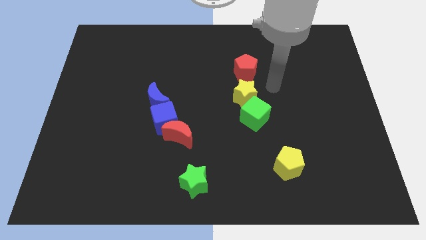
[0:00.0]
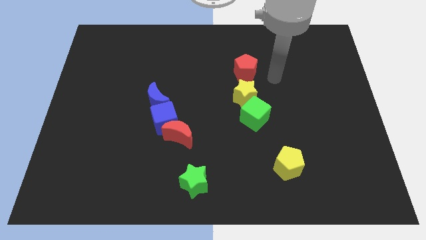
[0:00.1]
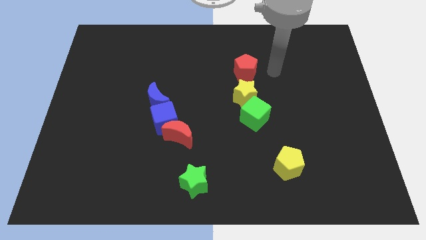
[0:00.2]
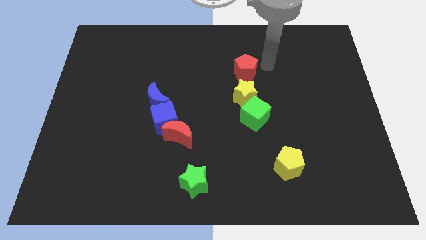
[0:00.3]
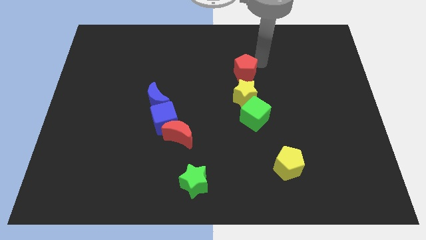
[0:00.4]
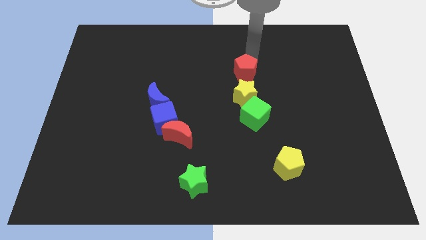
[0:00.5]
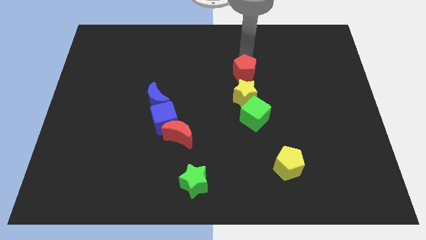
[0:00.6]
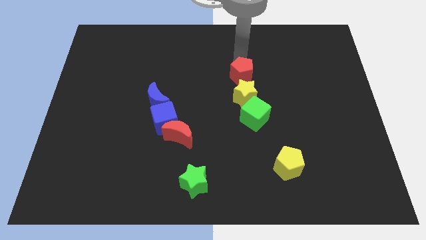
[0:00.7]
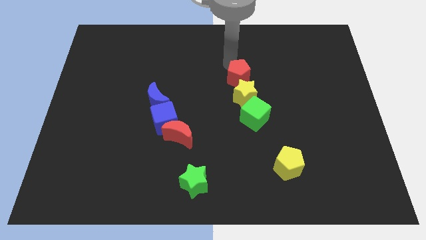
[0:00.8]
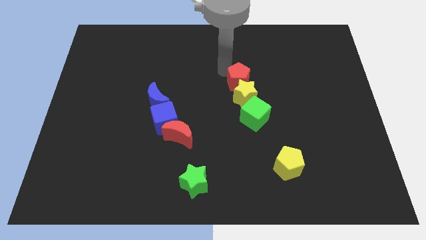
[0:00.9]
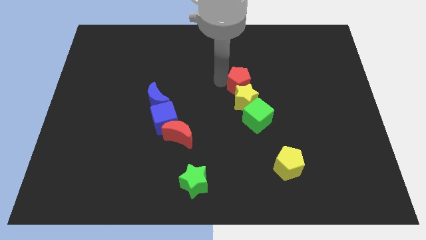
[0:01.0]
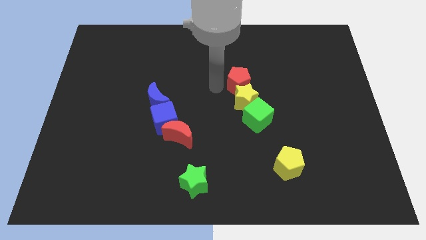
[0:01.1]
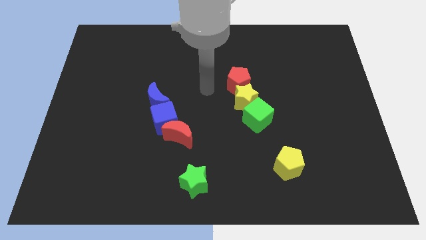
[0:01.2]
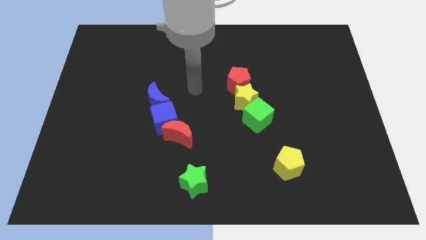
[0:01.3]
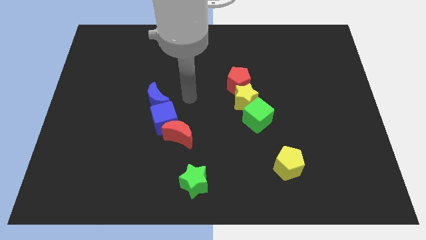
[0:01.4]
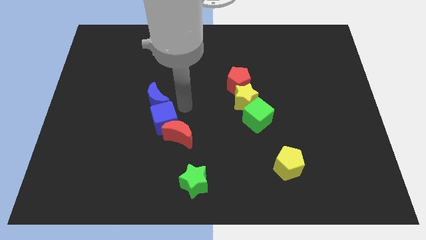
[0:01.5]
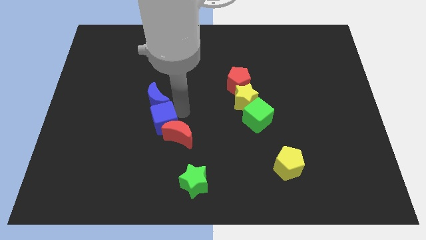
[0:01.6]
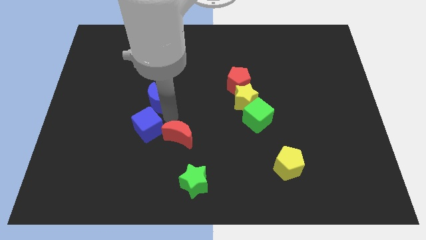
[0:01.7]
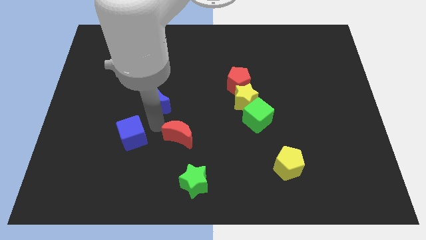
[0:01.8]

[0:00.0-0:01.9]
separate the red moon from the blue cube

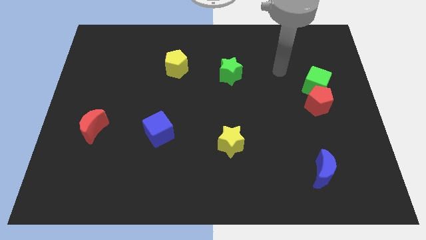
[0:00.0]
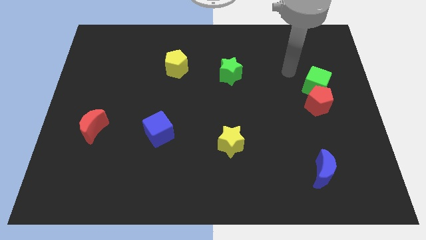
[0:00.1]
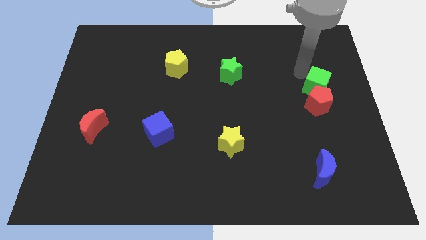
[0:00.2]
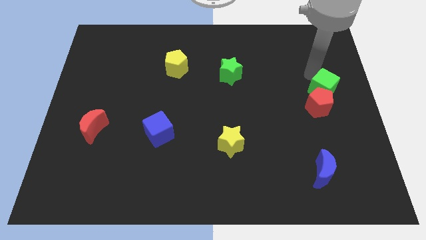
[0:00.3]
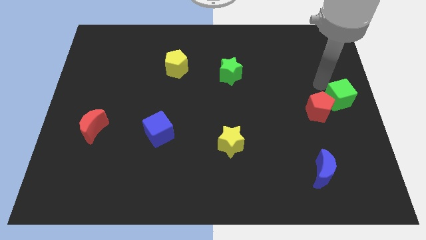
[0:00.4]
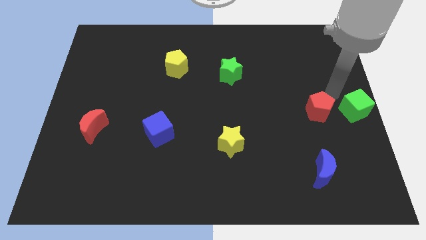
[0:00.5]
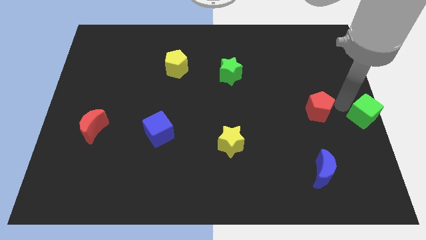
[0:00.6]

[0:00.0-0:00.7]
separate the red pentagon from the green cube

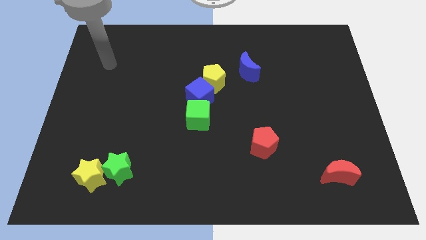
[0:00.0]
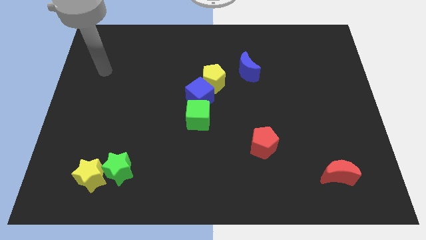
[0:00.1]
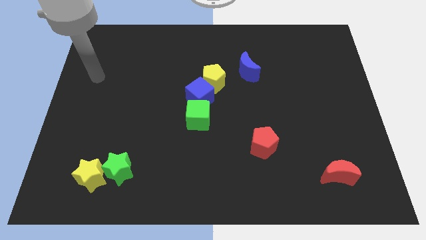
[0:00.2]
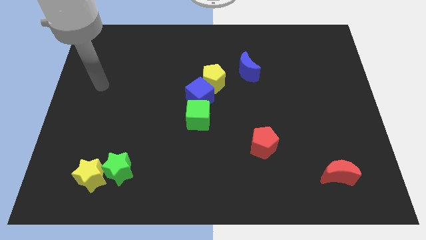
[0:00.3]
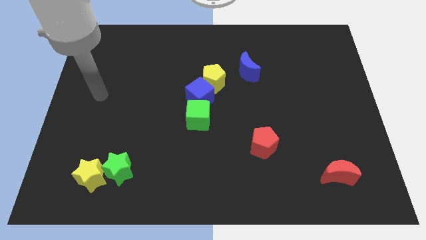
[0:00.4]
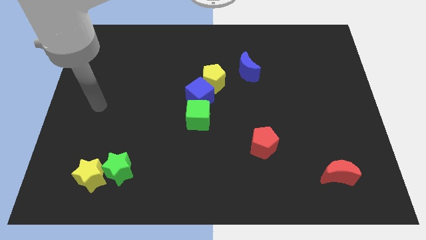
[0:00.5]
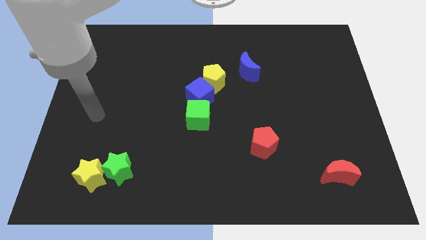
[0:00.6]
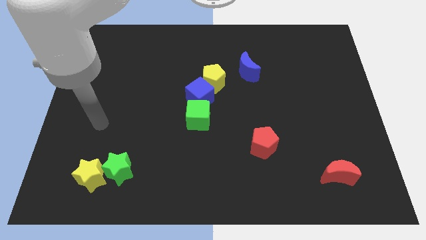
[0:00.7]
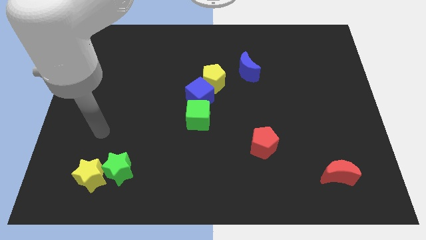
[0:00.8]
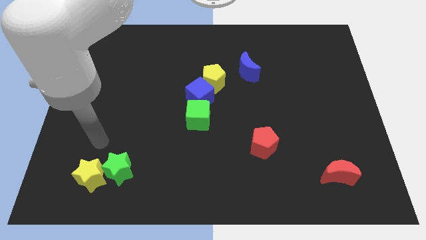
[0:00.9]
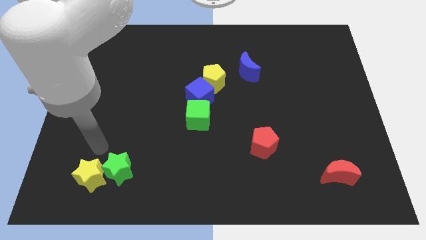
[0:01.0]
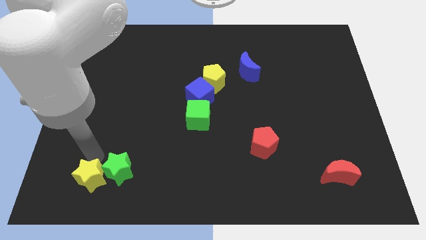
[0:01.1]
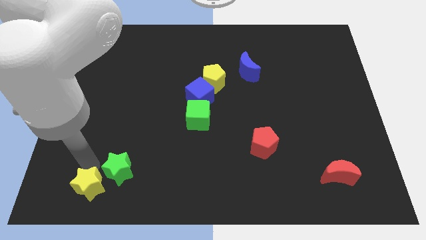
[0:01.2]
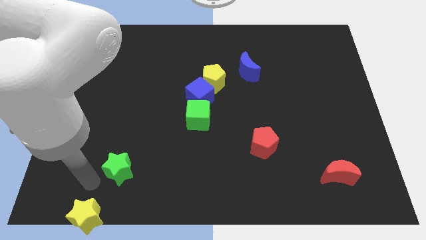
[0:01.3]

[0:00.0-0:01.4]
separate the green star from the yellow star

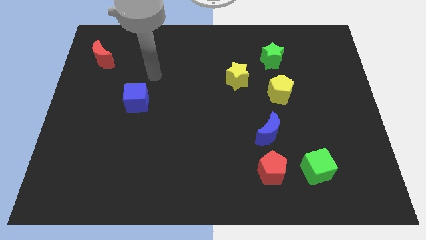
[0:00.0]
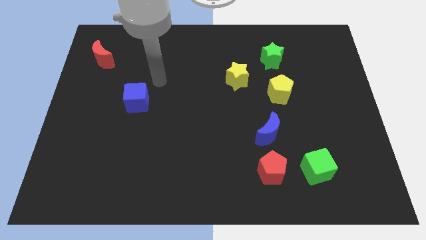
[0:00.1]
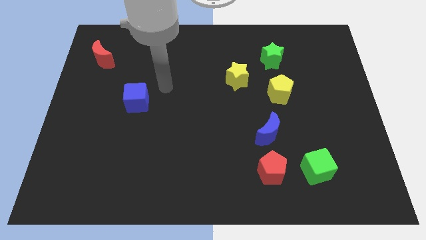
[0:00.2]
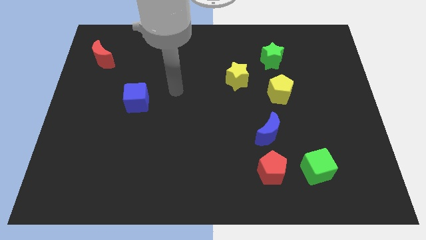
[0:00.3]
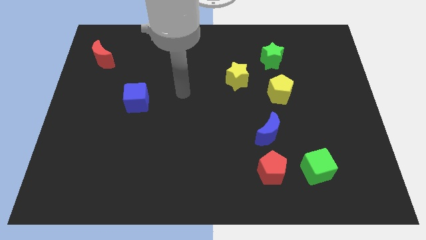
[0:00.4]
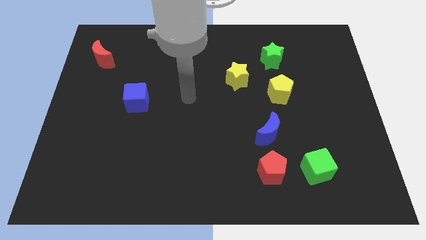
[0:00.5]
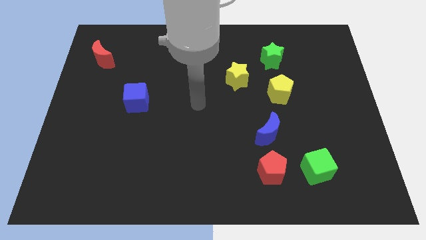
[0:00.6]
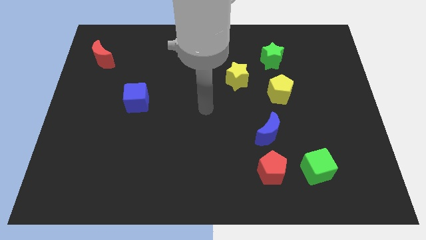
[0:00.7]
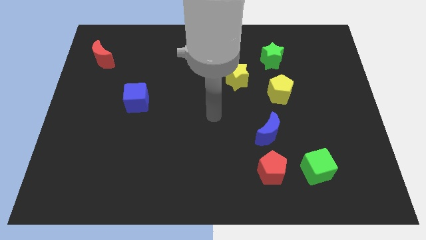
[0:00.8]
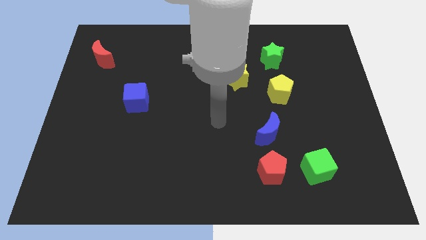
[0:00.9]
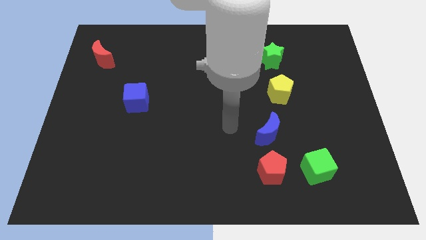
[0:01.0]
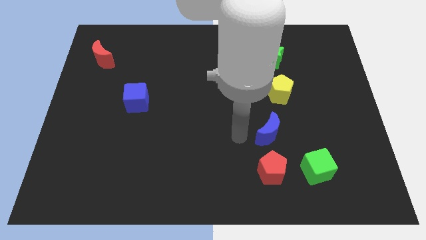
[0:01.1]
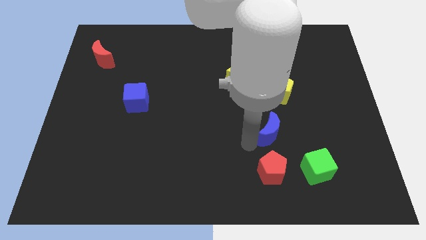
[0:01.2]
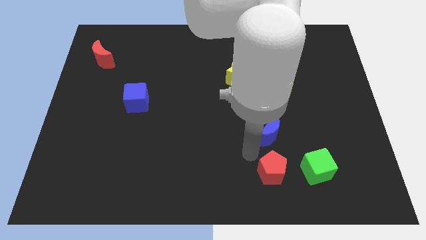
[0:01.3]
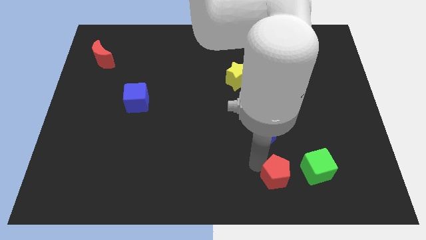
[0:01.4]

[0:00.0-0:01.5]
pull the blue moon apart from the red pentagon

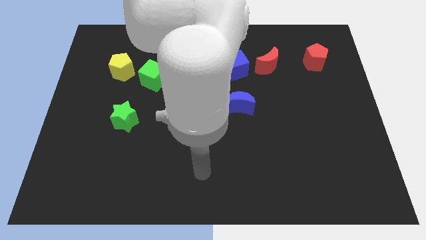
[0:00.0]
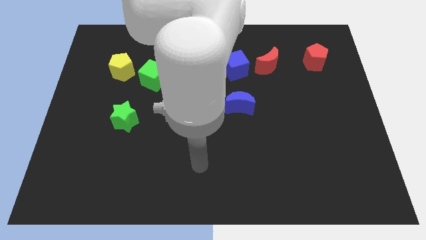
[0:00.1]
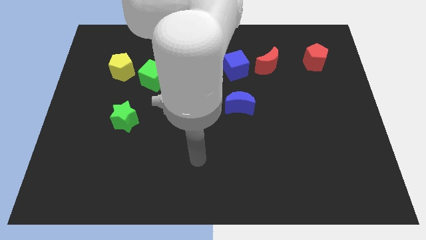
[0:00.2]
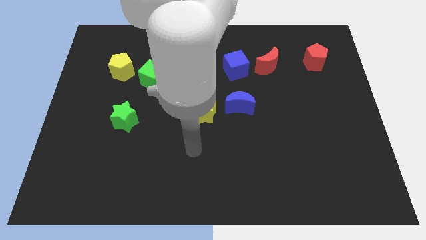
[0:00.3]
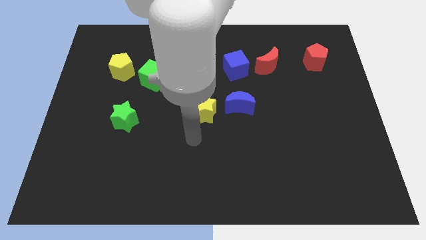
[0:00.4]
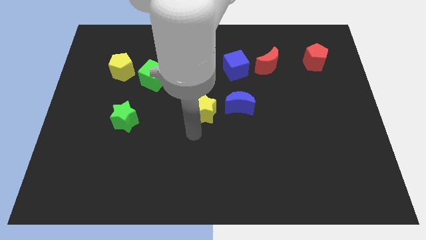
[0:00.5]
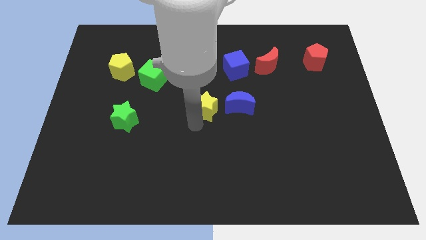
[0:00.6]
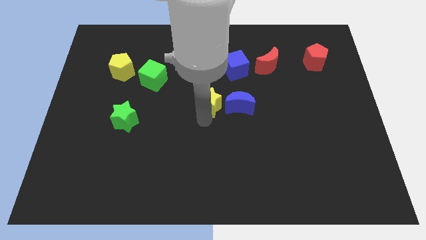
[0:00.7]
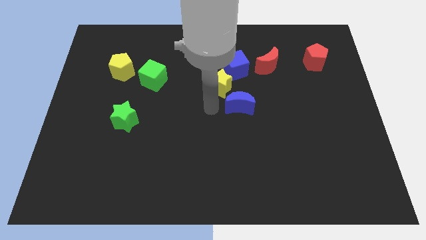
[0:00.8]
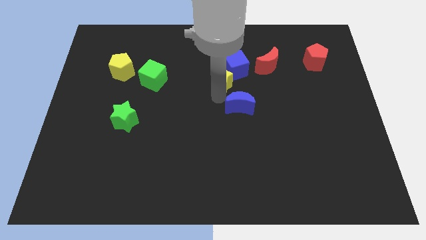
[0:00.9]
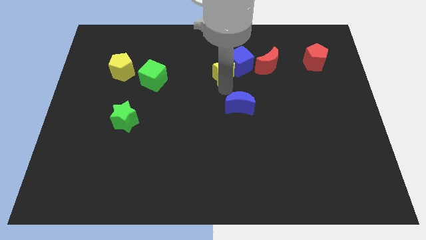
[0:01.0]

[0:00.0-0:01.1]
move the blue moon away from the yellow star

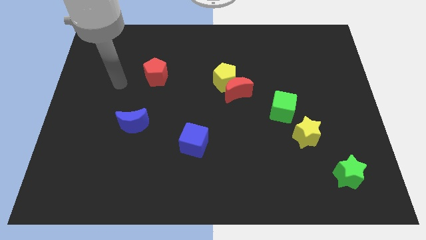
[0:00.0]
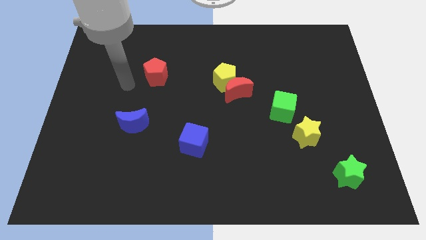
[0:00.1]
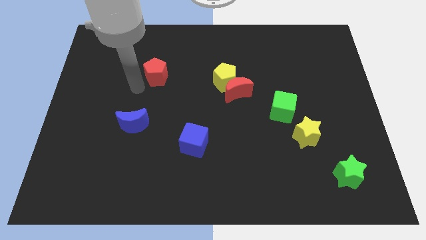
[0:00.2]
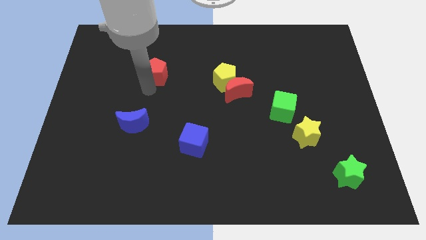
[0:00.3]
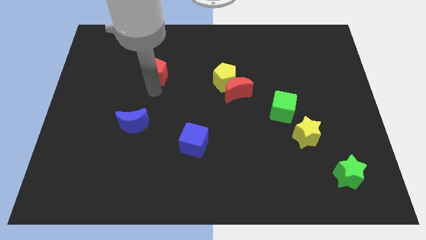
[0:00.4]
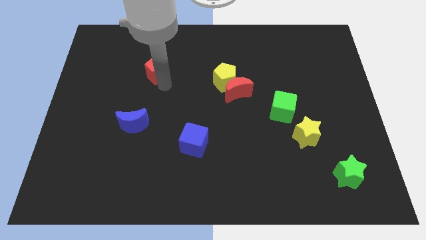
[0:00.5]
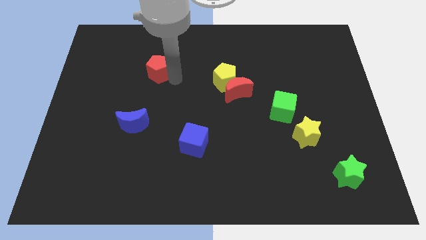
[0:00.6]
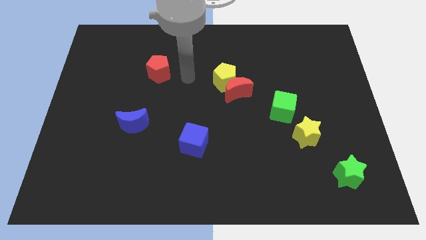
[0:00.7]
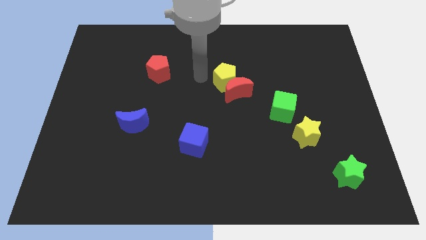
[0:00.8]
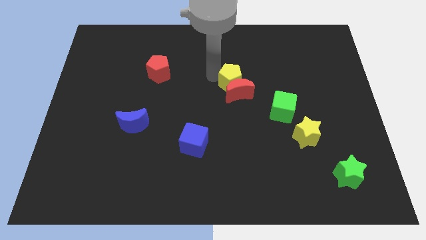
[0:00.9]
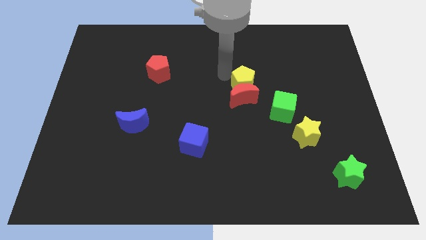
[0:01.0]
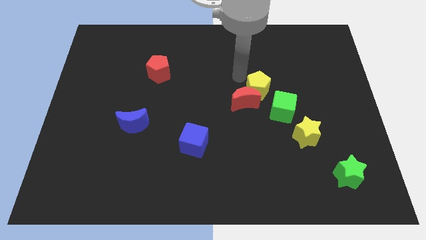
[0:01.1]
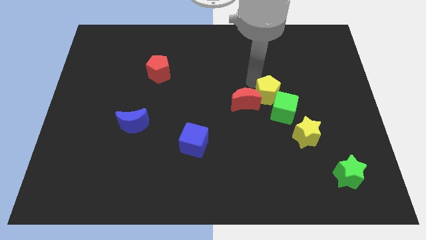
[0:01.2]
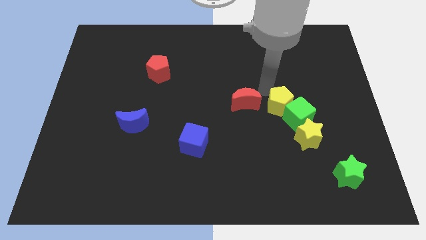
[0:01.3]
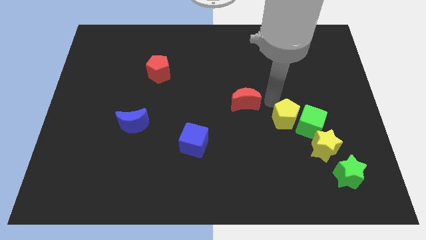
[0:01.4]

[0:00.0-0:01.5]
move the red moon away from the yellow pentagon

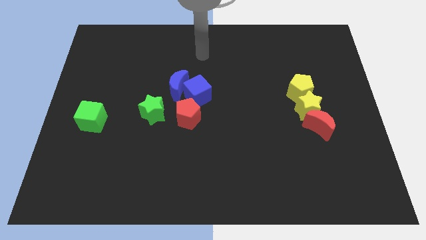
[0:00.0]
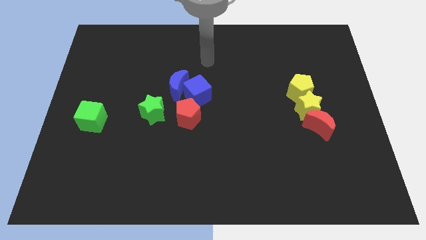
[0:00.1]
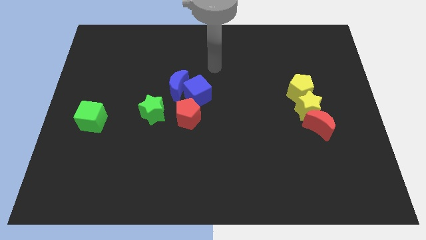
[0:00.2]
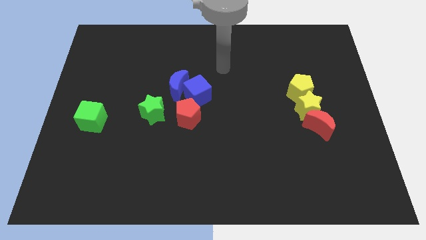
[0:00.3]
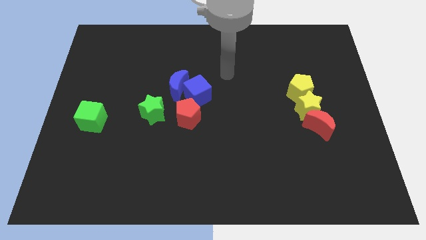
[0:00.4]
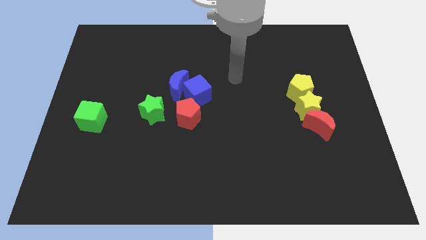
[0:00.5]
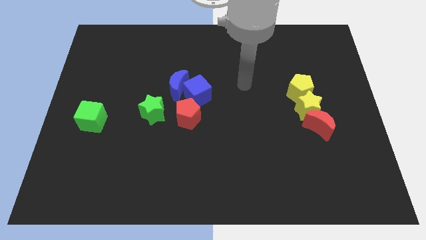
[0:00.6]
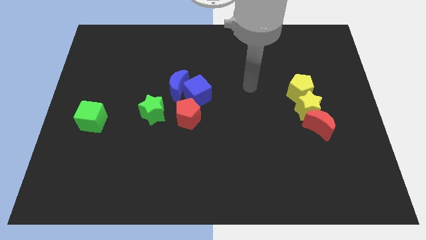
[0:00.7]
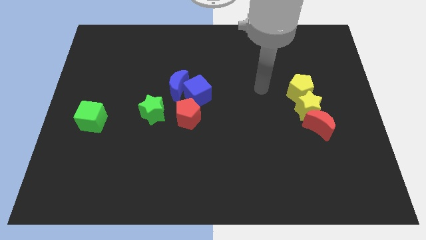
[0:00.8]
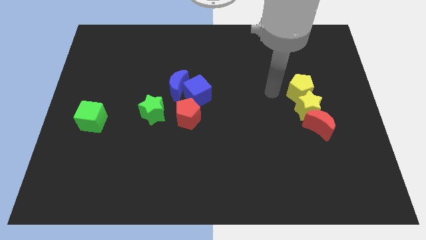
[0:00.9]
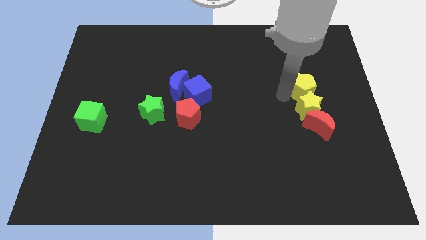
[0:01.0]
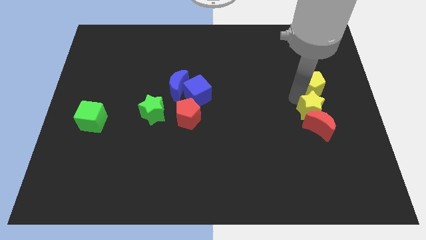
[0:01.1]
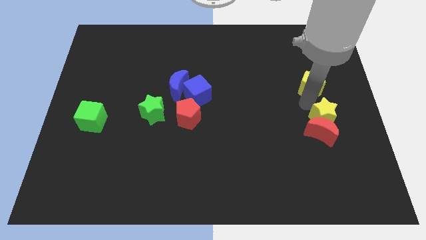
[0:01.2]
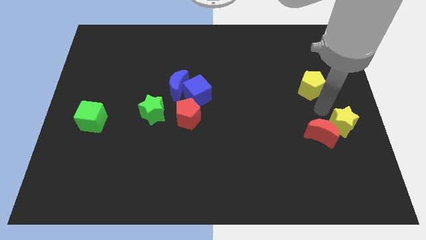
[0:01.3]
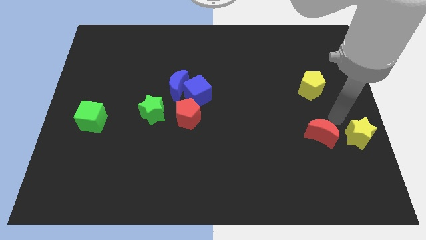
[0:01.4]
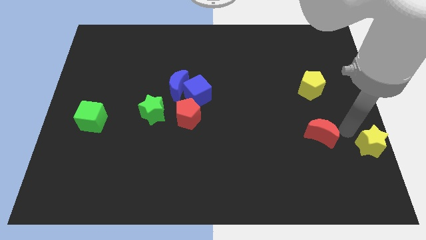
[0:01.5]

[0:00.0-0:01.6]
move the red moon away from the yellow star
